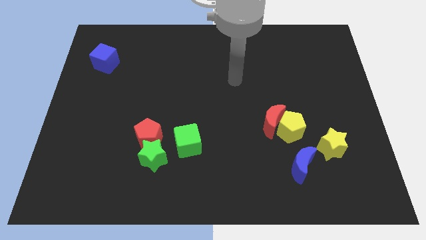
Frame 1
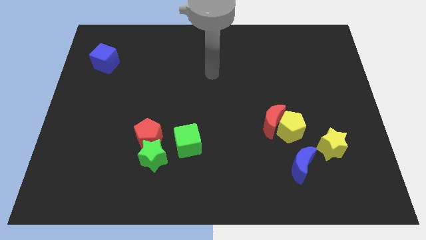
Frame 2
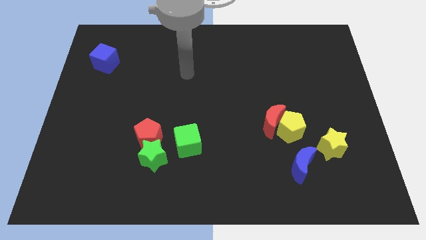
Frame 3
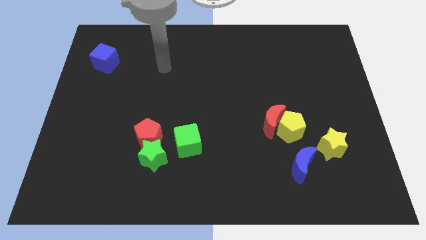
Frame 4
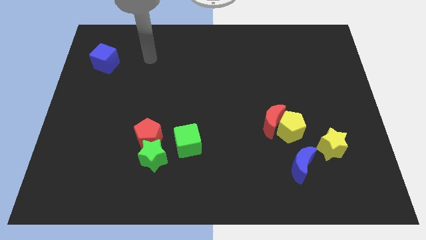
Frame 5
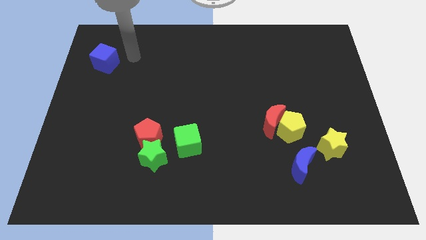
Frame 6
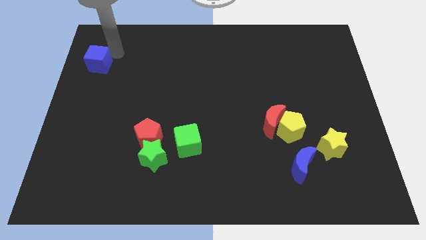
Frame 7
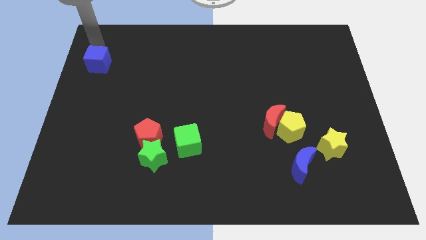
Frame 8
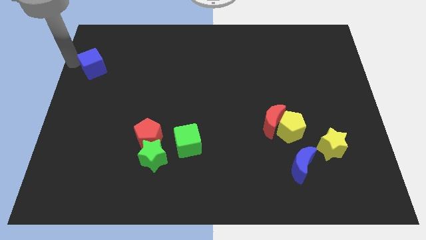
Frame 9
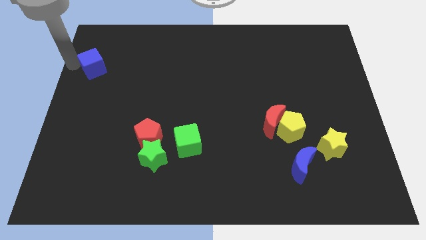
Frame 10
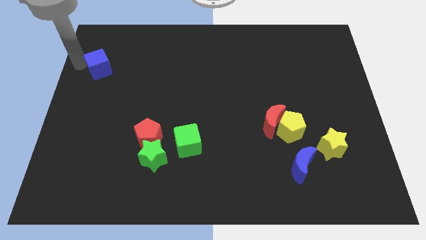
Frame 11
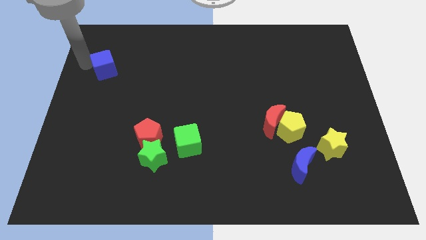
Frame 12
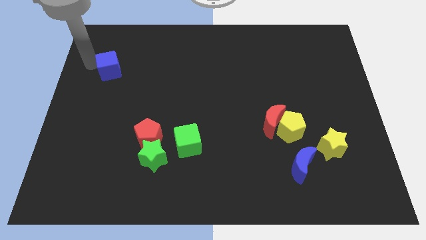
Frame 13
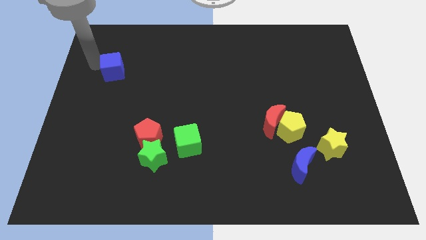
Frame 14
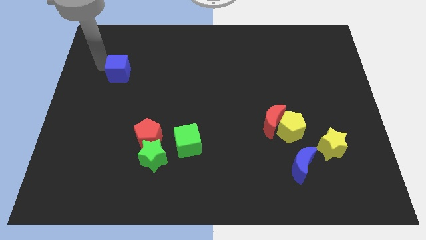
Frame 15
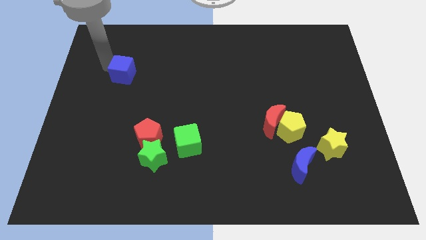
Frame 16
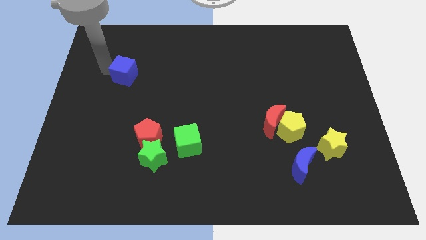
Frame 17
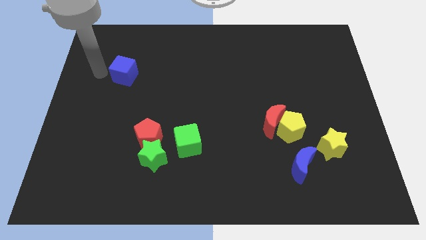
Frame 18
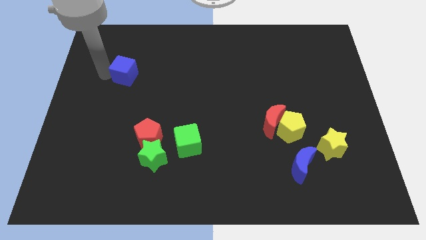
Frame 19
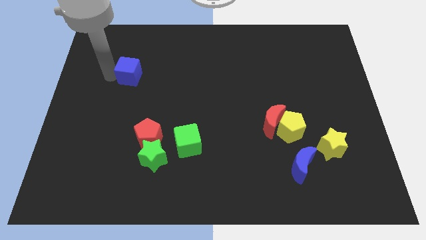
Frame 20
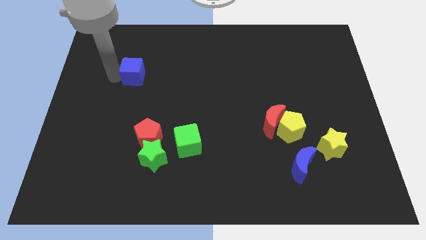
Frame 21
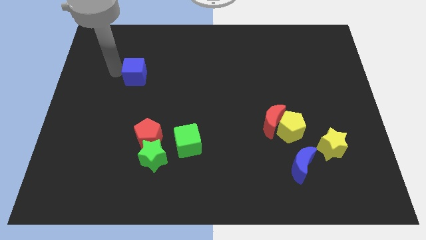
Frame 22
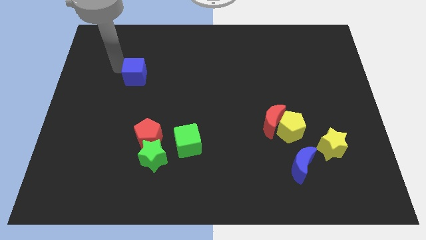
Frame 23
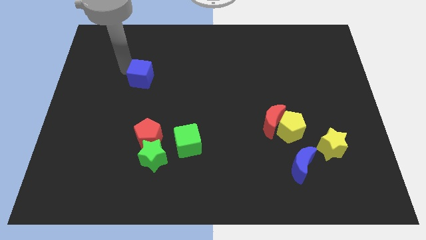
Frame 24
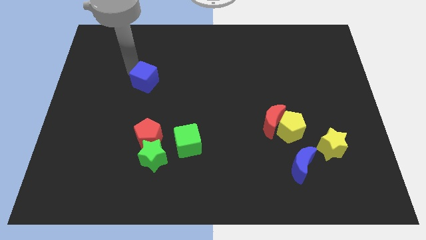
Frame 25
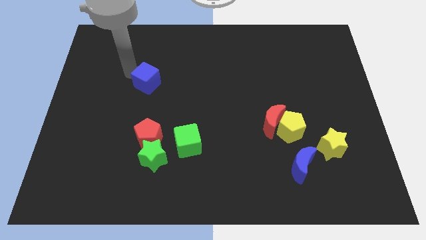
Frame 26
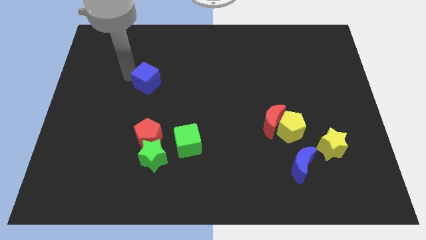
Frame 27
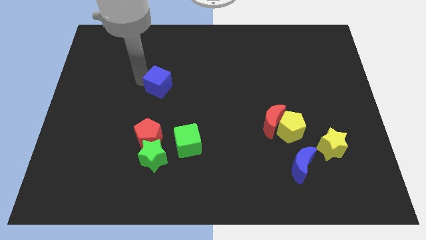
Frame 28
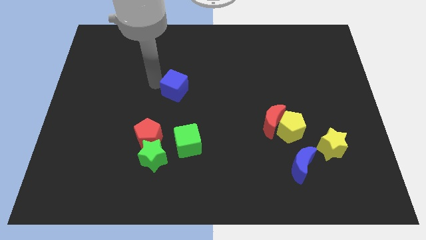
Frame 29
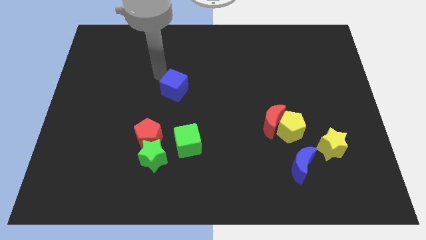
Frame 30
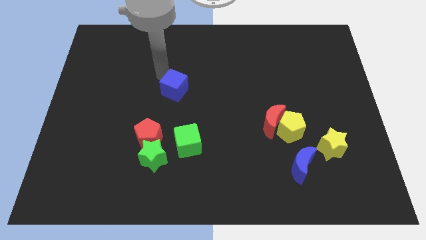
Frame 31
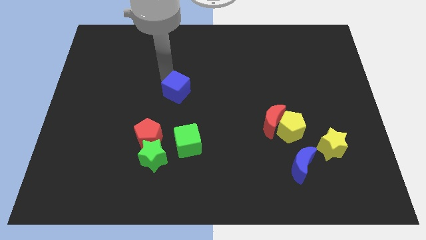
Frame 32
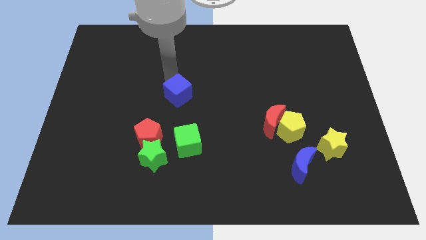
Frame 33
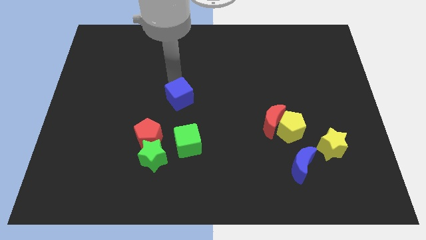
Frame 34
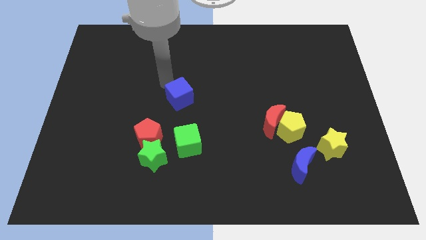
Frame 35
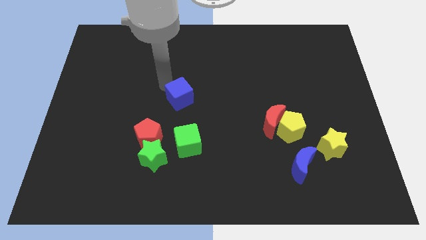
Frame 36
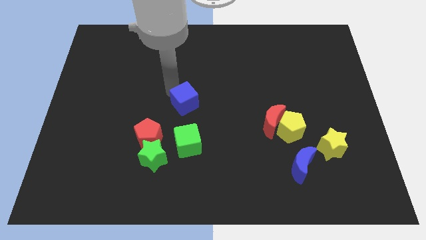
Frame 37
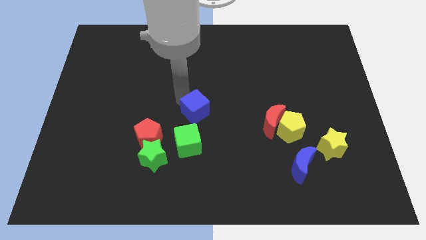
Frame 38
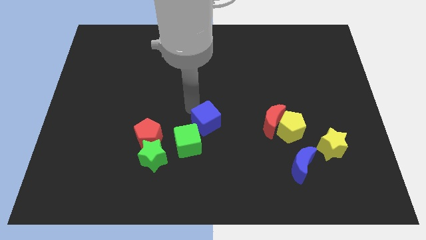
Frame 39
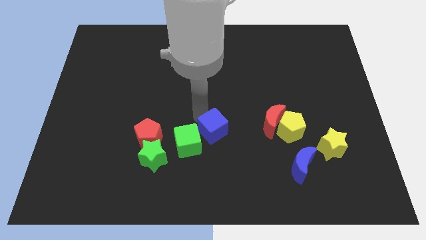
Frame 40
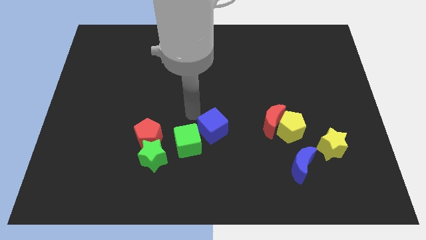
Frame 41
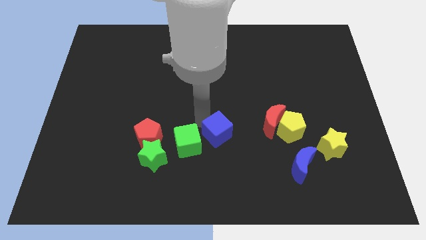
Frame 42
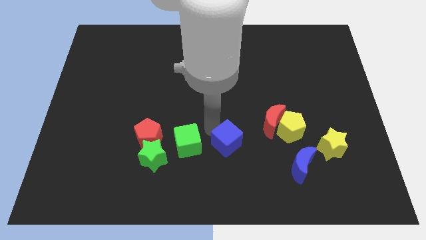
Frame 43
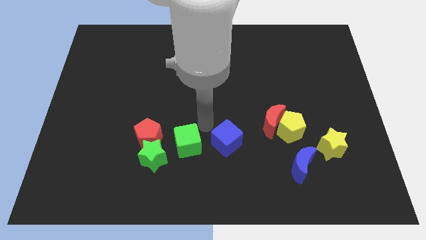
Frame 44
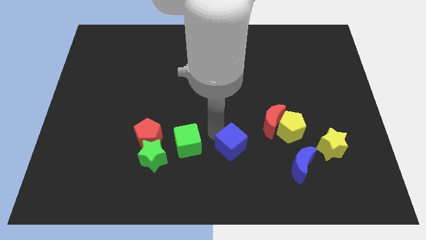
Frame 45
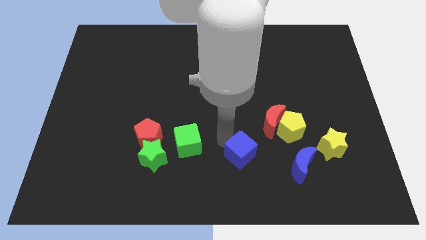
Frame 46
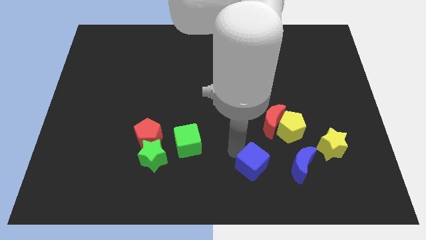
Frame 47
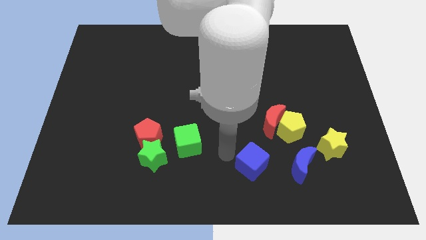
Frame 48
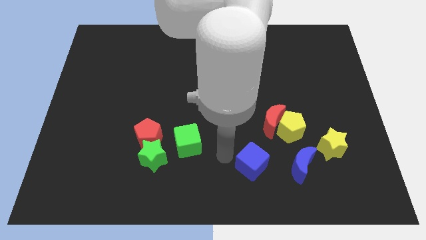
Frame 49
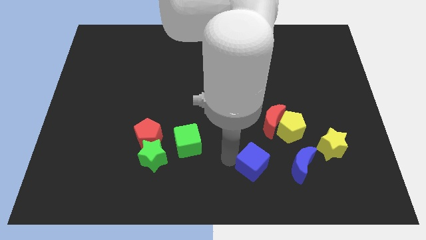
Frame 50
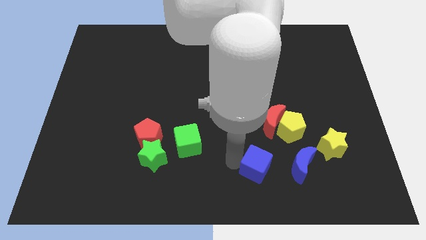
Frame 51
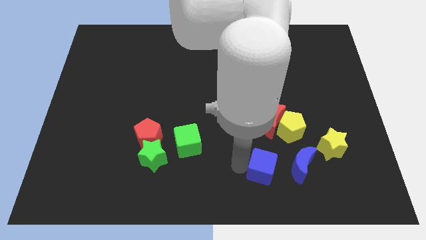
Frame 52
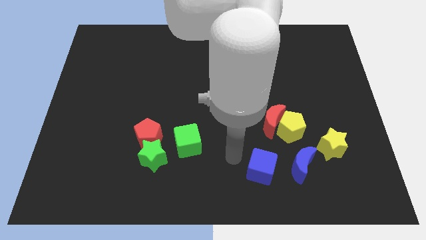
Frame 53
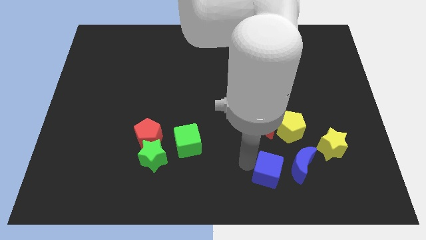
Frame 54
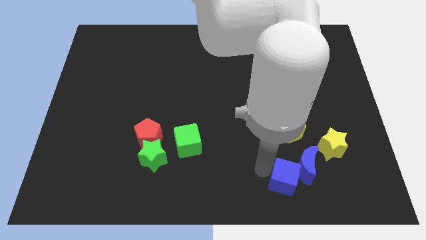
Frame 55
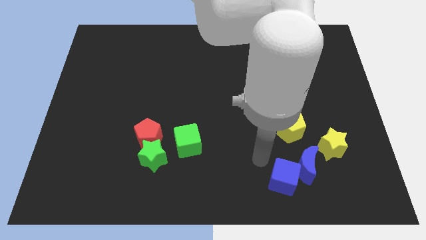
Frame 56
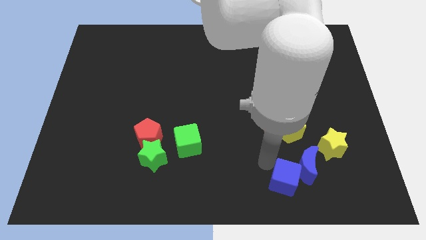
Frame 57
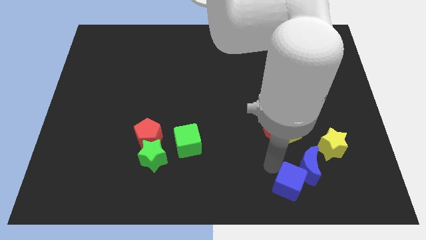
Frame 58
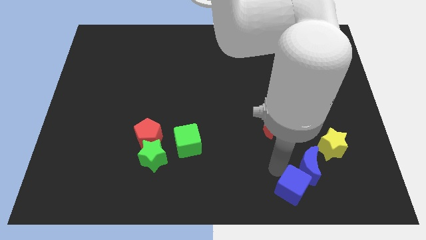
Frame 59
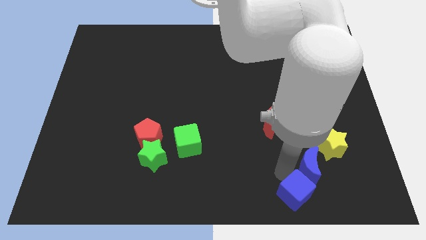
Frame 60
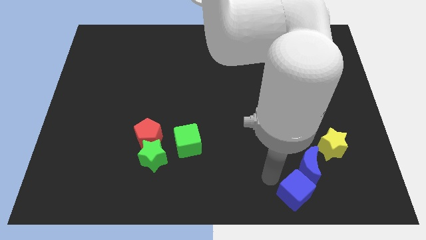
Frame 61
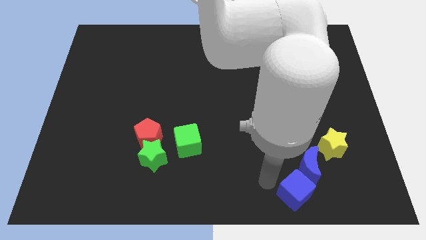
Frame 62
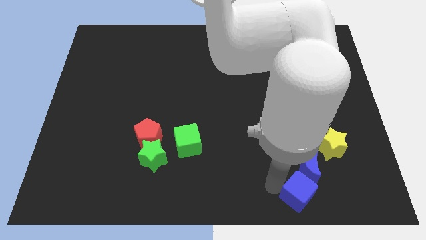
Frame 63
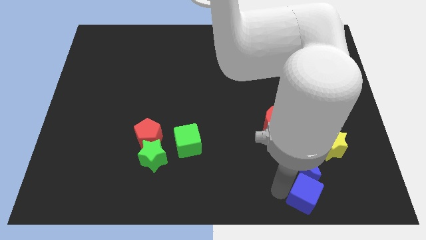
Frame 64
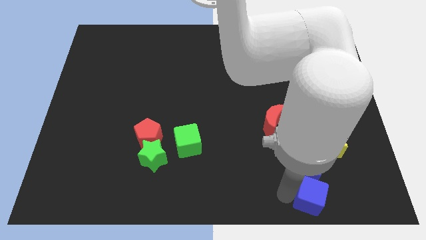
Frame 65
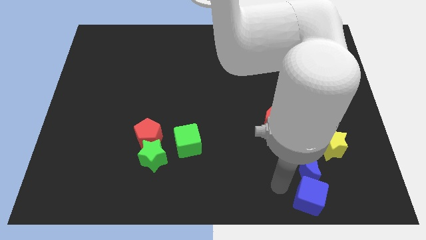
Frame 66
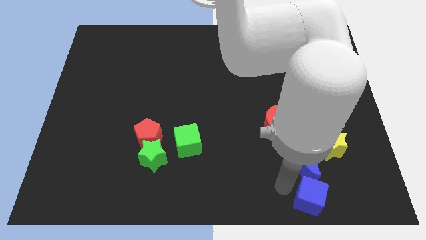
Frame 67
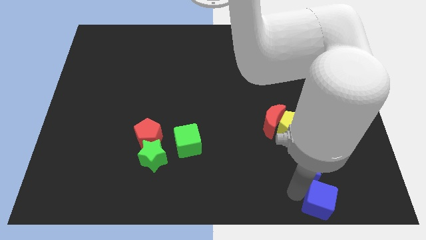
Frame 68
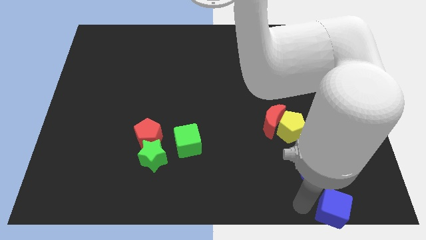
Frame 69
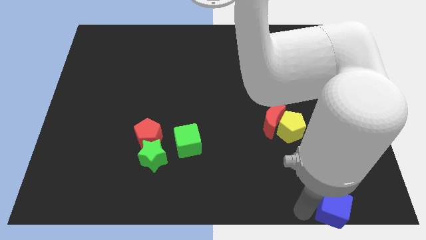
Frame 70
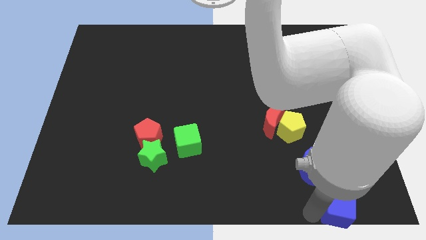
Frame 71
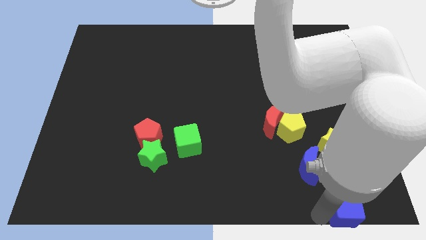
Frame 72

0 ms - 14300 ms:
put the blue cube to the bottom right of the board
